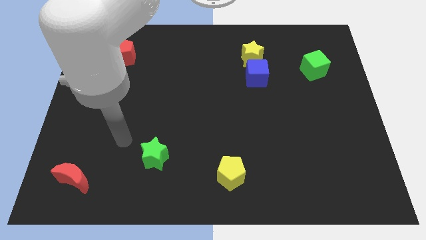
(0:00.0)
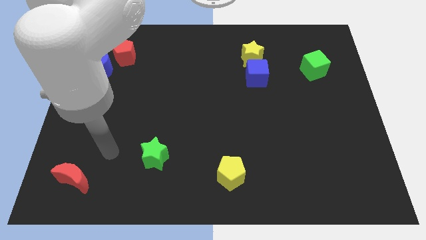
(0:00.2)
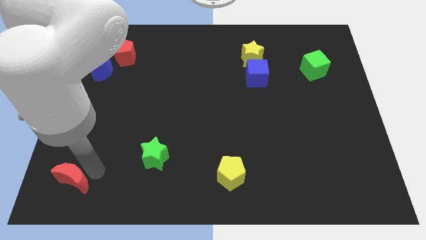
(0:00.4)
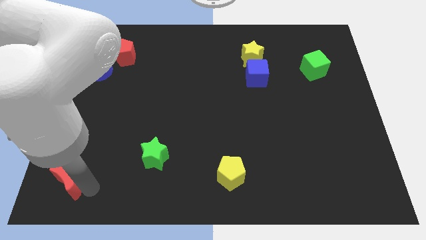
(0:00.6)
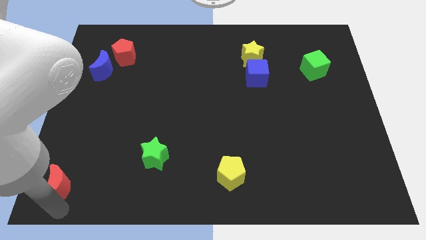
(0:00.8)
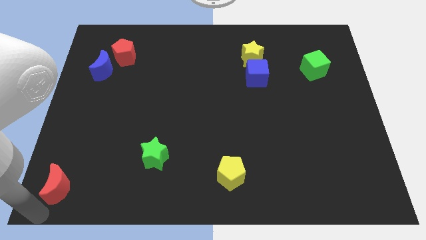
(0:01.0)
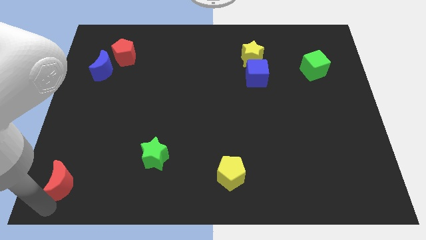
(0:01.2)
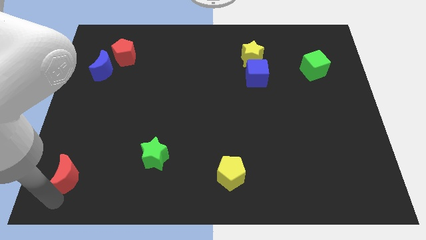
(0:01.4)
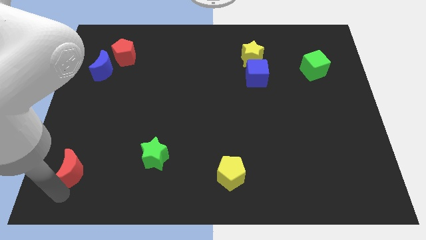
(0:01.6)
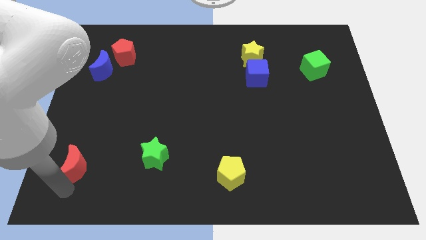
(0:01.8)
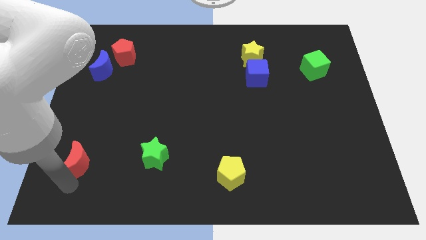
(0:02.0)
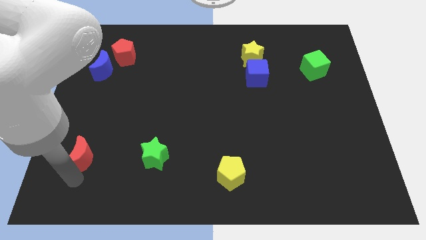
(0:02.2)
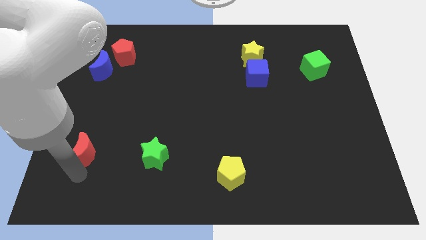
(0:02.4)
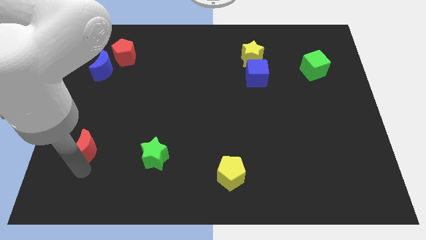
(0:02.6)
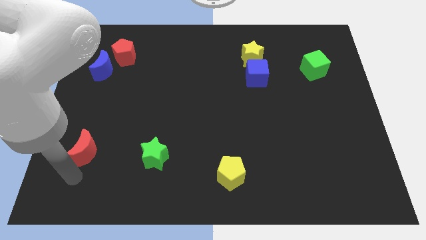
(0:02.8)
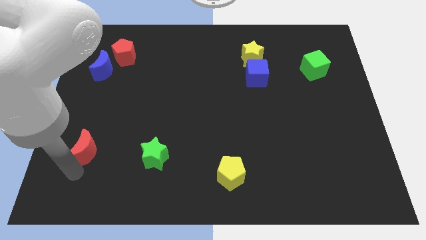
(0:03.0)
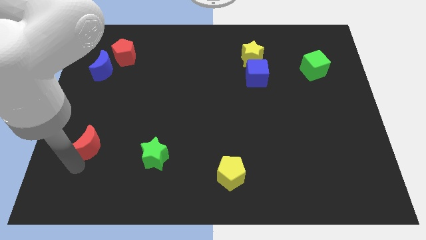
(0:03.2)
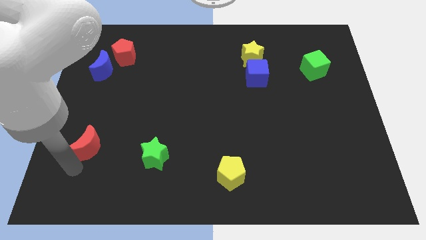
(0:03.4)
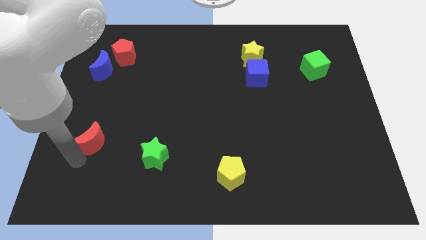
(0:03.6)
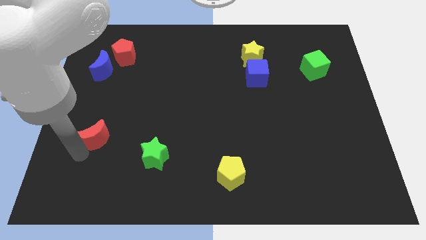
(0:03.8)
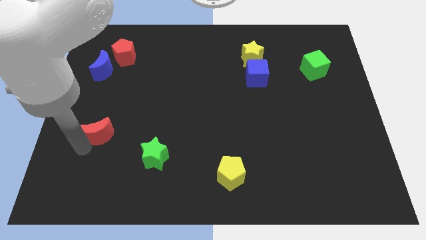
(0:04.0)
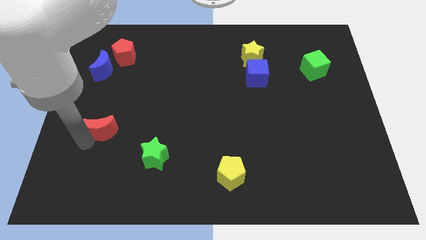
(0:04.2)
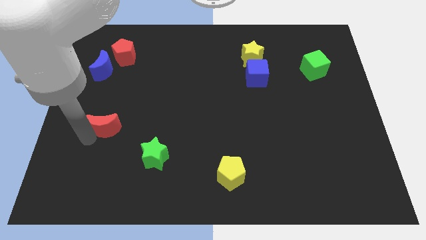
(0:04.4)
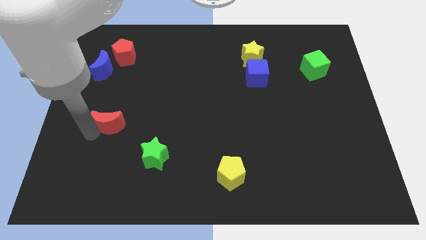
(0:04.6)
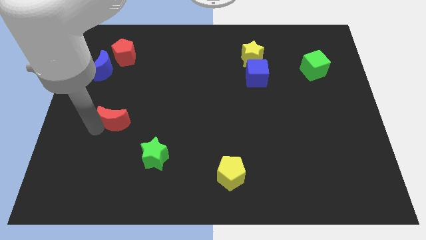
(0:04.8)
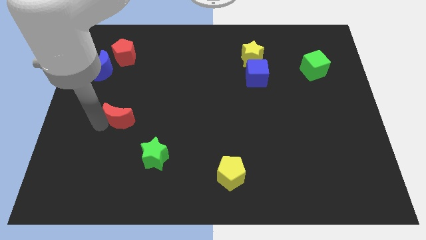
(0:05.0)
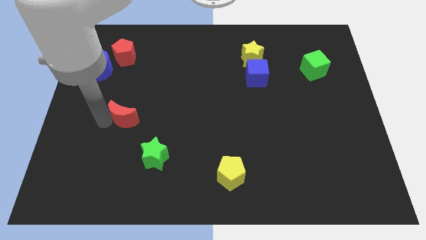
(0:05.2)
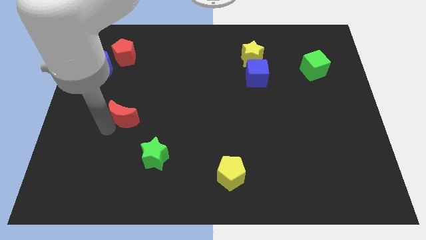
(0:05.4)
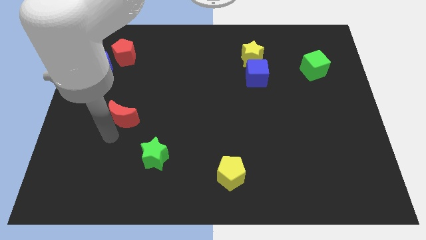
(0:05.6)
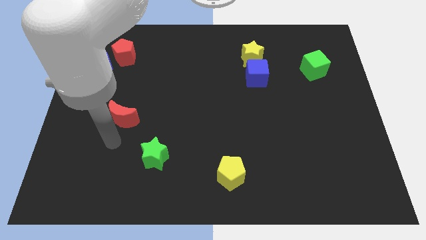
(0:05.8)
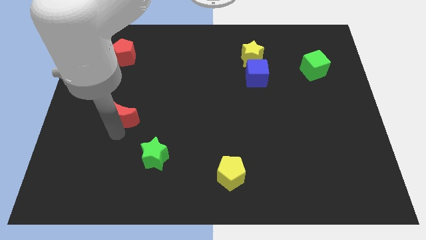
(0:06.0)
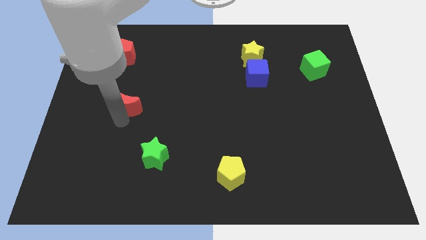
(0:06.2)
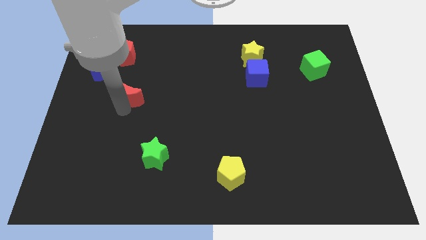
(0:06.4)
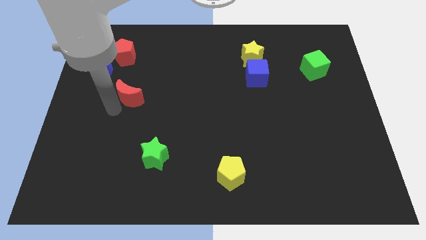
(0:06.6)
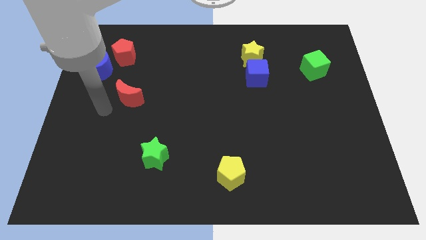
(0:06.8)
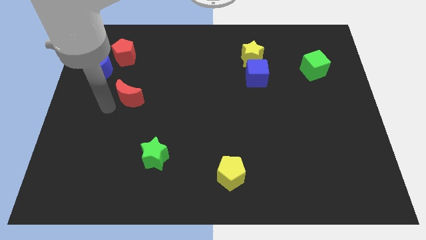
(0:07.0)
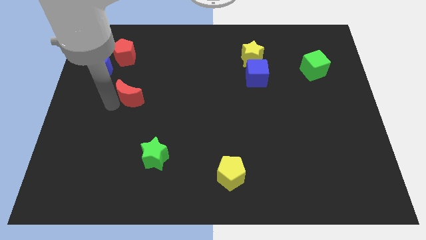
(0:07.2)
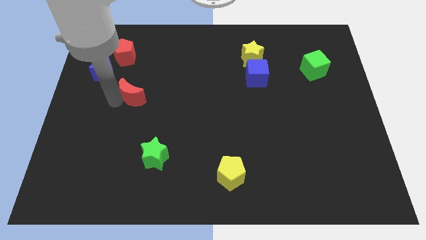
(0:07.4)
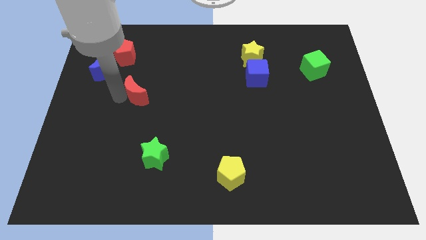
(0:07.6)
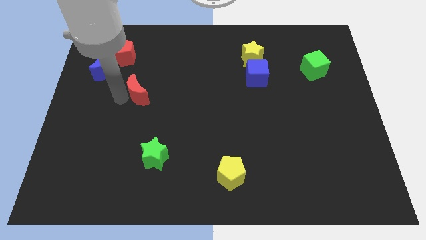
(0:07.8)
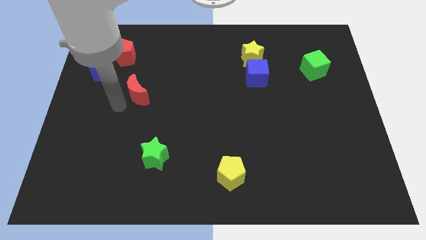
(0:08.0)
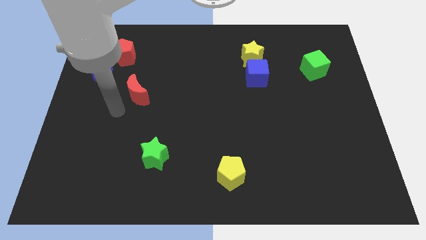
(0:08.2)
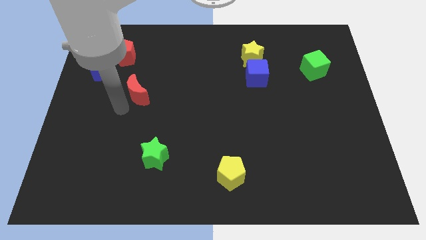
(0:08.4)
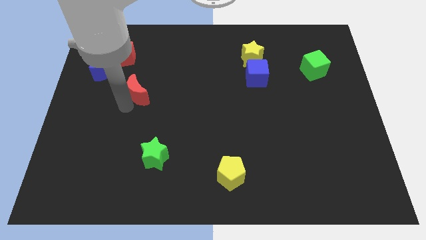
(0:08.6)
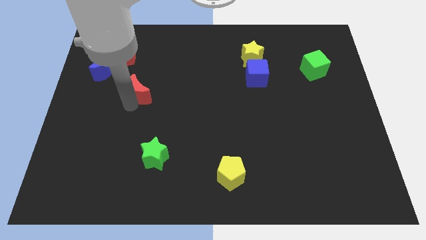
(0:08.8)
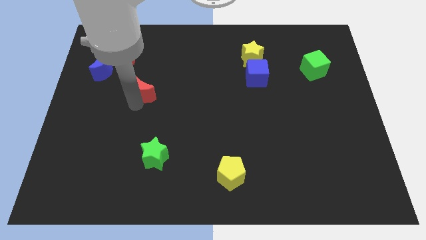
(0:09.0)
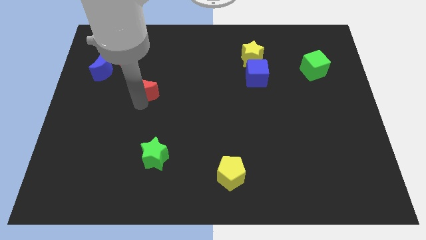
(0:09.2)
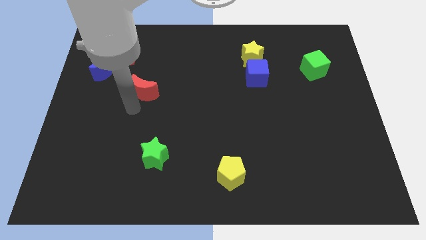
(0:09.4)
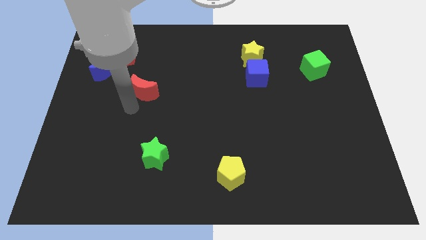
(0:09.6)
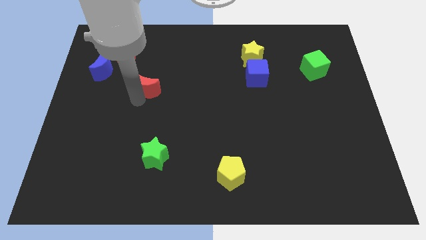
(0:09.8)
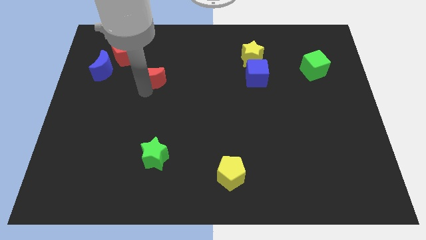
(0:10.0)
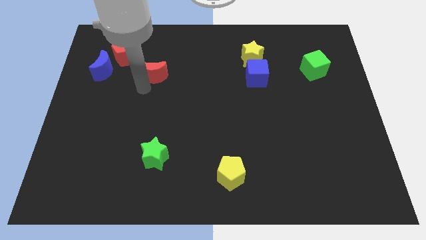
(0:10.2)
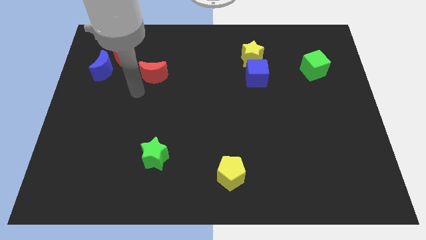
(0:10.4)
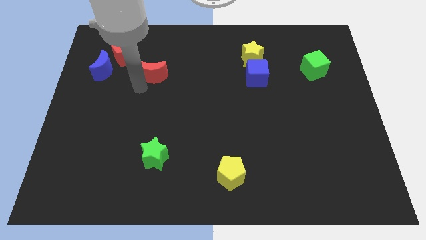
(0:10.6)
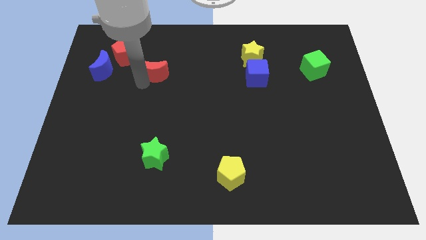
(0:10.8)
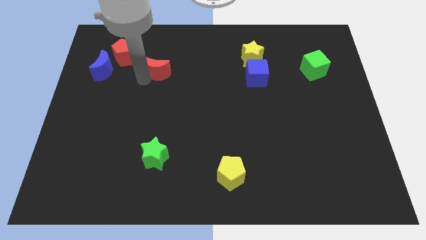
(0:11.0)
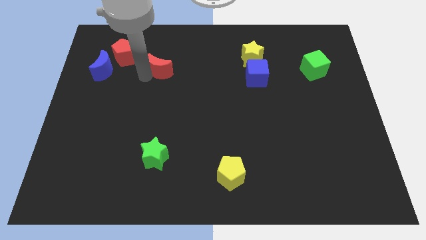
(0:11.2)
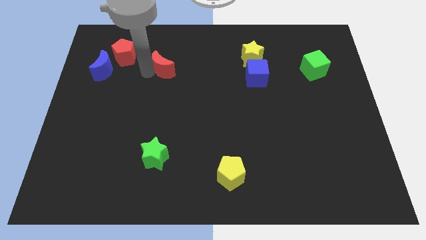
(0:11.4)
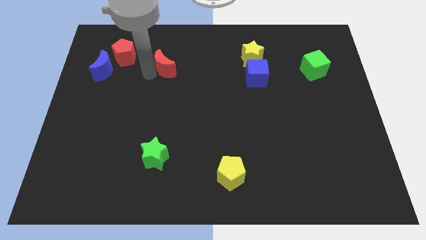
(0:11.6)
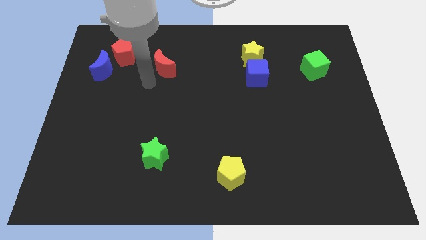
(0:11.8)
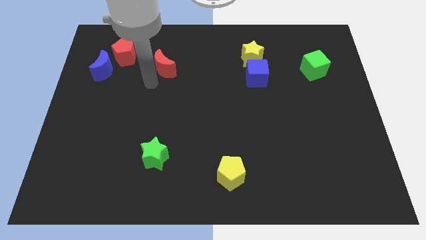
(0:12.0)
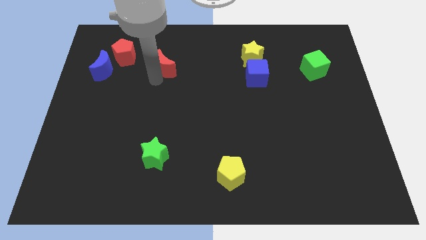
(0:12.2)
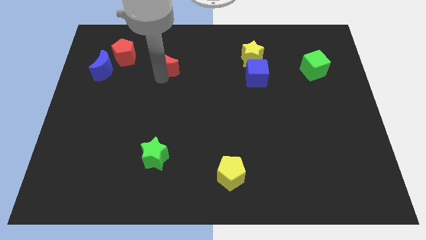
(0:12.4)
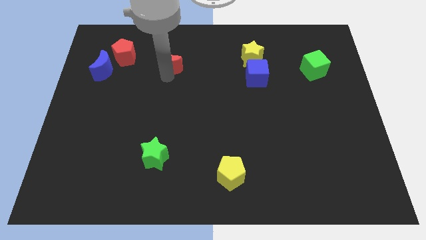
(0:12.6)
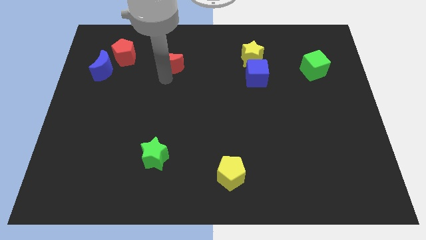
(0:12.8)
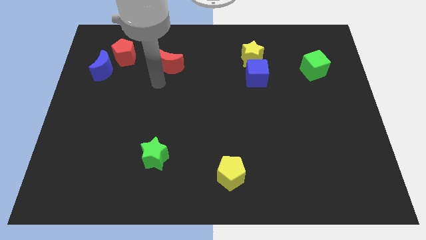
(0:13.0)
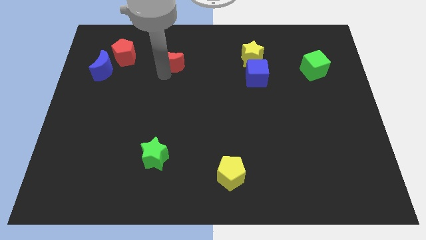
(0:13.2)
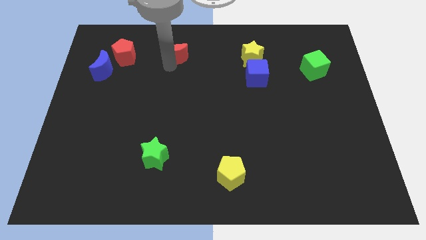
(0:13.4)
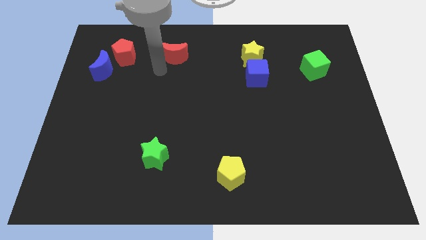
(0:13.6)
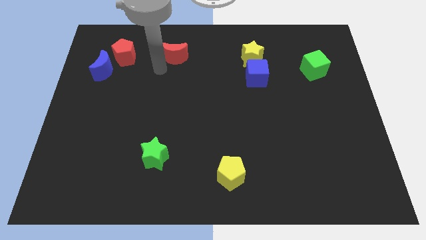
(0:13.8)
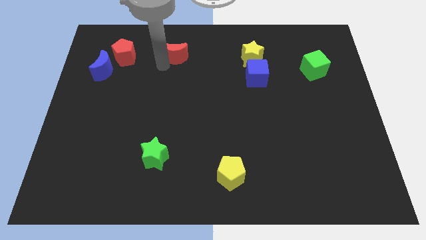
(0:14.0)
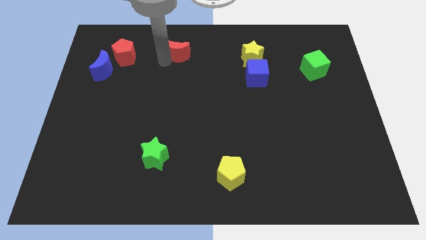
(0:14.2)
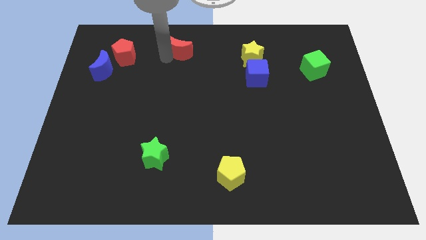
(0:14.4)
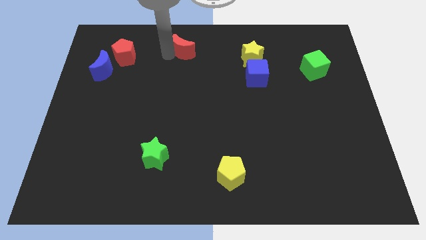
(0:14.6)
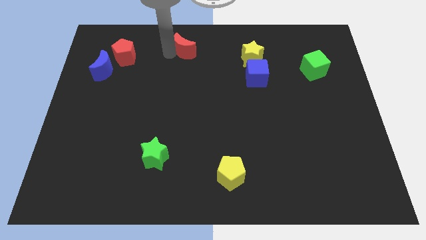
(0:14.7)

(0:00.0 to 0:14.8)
put the red moon to the top side

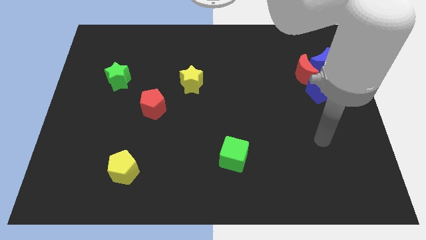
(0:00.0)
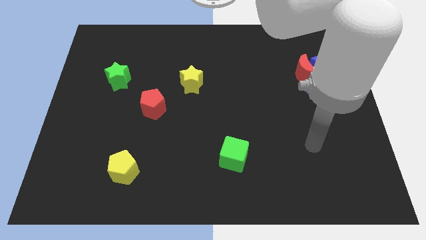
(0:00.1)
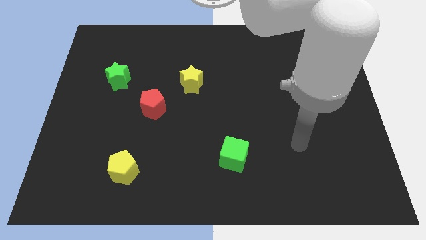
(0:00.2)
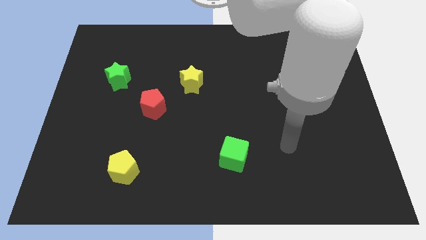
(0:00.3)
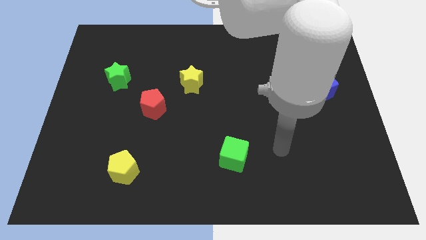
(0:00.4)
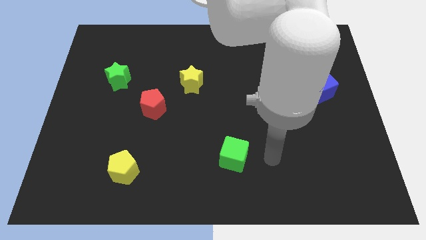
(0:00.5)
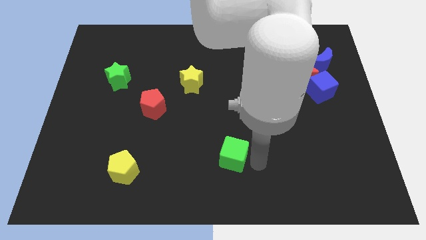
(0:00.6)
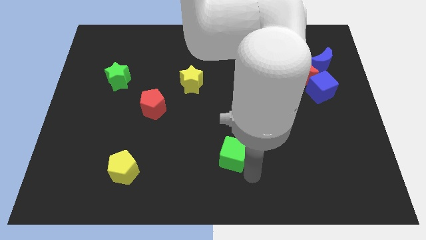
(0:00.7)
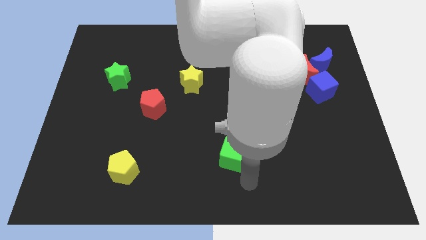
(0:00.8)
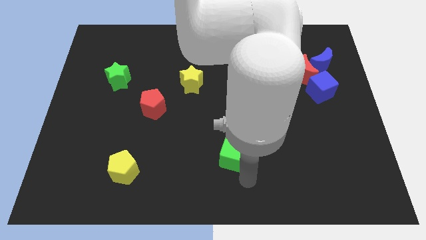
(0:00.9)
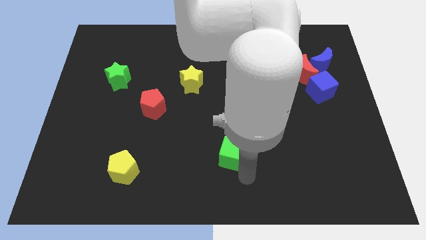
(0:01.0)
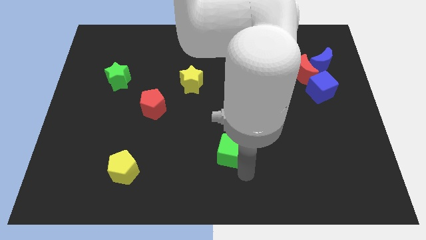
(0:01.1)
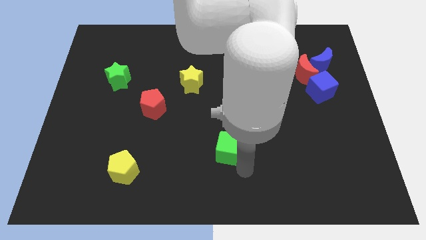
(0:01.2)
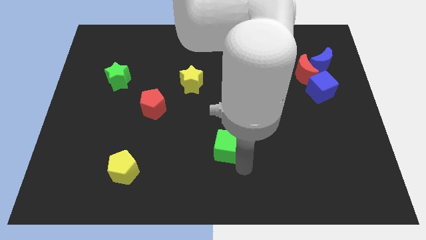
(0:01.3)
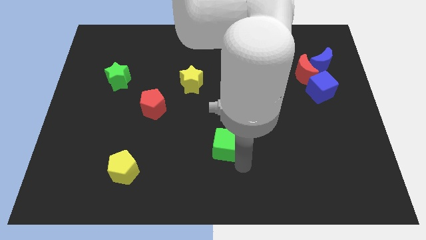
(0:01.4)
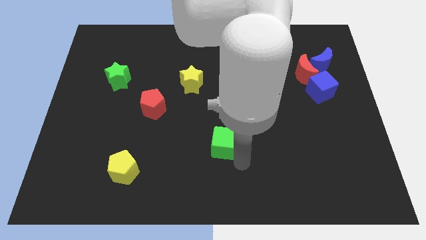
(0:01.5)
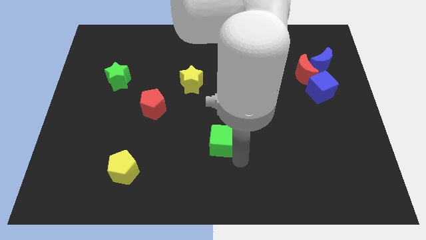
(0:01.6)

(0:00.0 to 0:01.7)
push the green cube to the middle of the board
